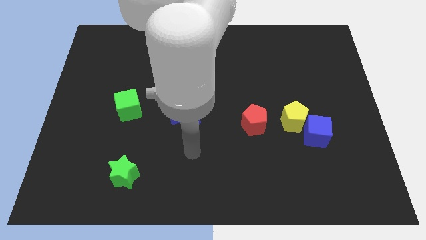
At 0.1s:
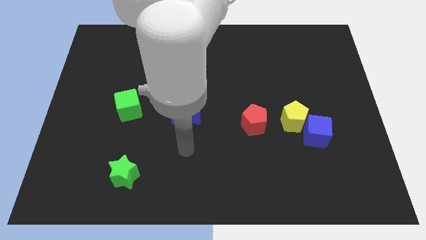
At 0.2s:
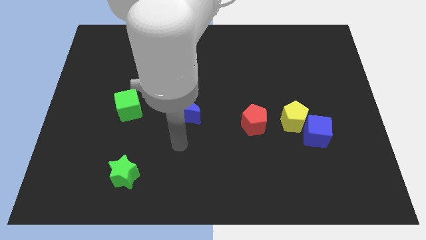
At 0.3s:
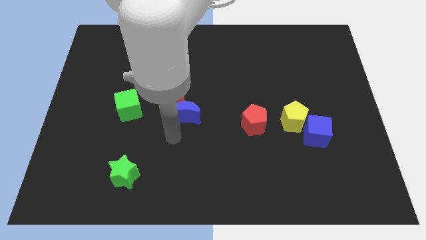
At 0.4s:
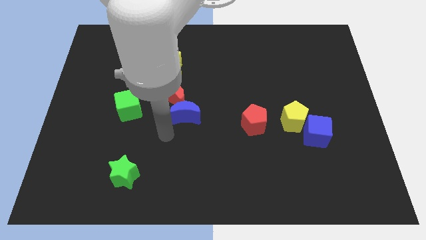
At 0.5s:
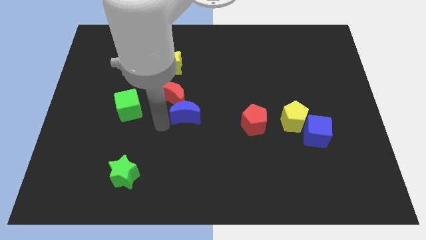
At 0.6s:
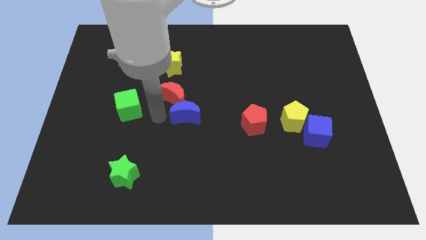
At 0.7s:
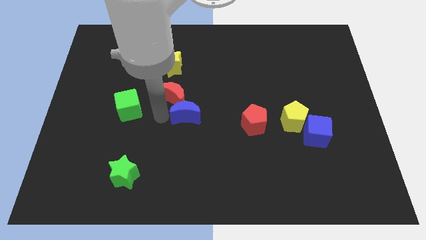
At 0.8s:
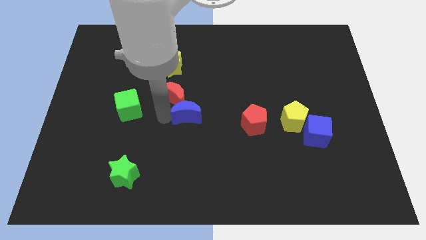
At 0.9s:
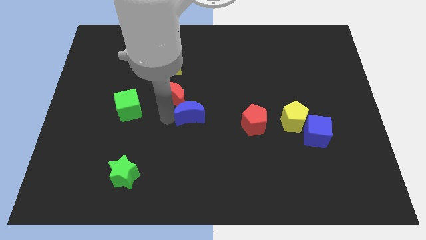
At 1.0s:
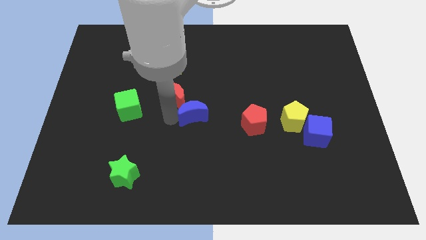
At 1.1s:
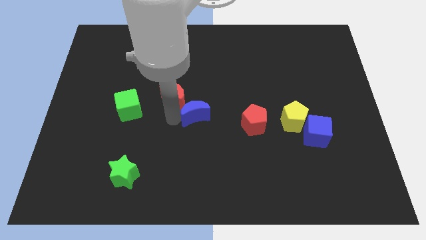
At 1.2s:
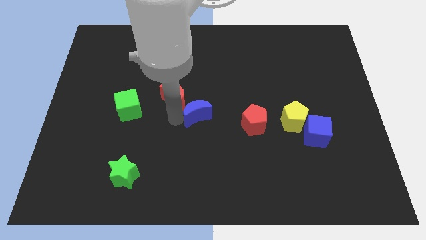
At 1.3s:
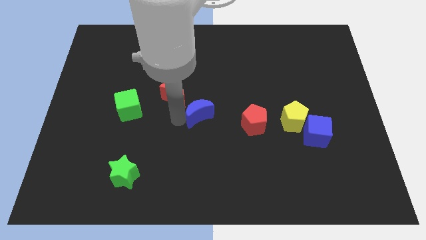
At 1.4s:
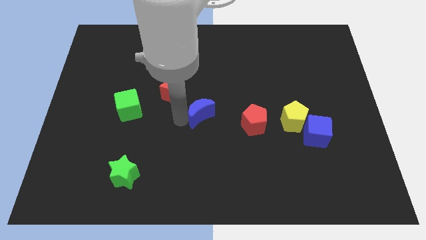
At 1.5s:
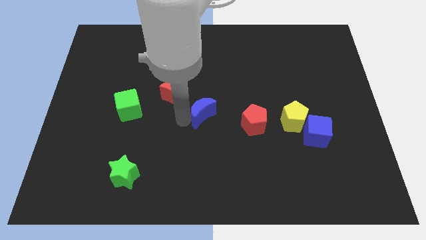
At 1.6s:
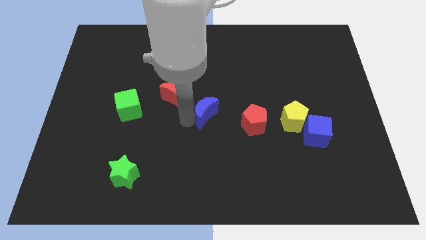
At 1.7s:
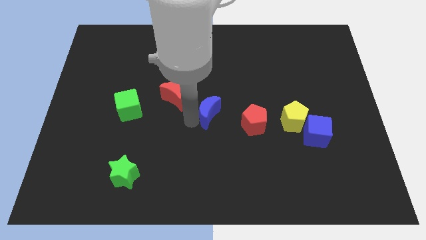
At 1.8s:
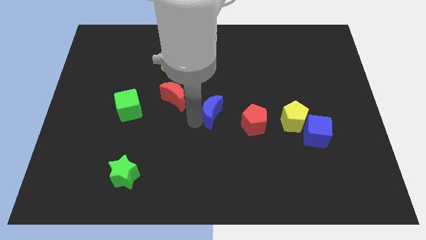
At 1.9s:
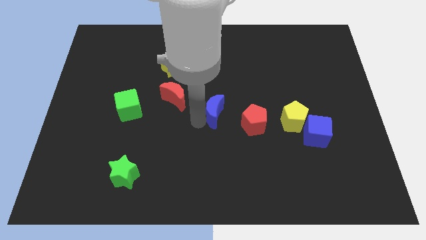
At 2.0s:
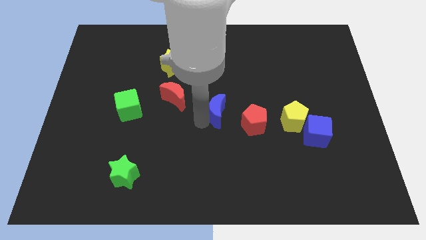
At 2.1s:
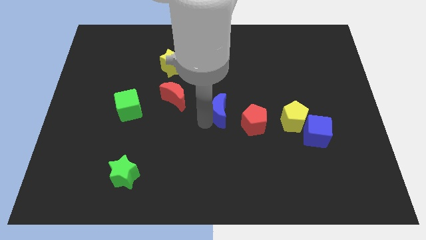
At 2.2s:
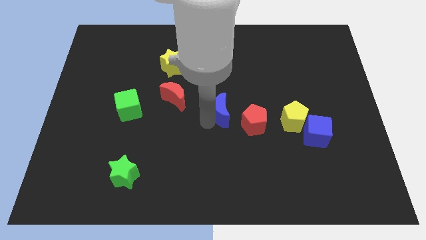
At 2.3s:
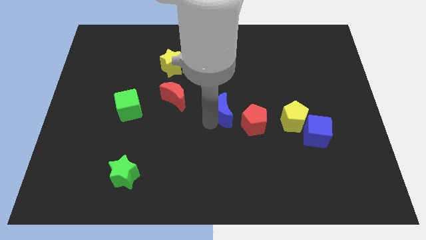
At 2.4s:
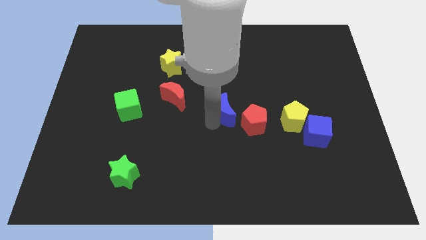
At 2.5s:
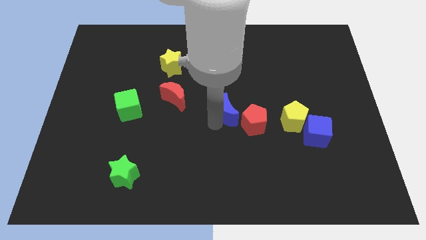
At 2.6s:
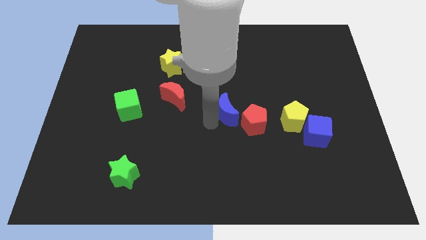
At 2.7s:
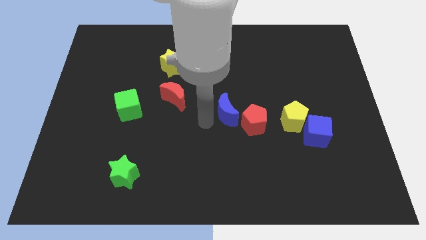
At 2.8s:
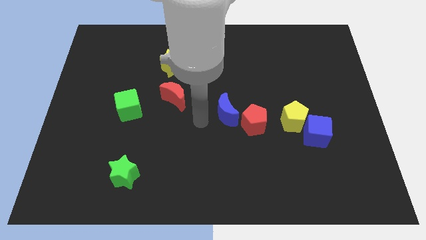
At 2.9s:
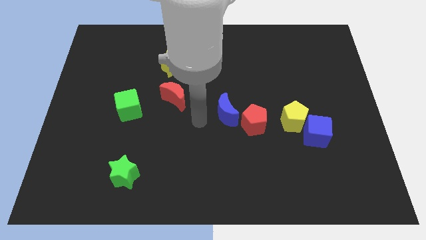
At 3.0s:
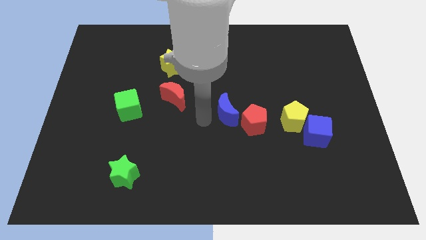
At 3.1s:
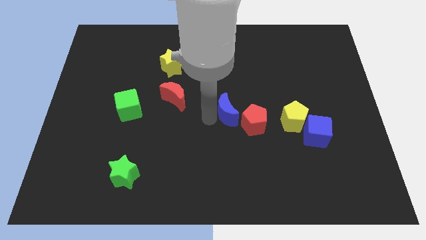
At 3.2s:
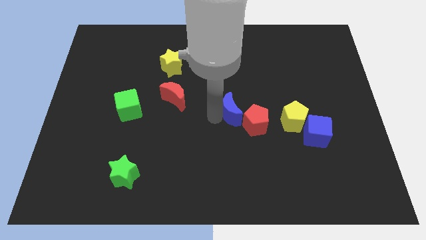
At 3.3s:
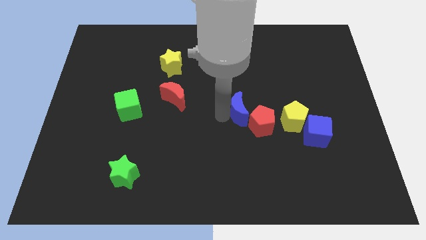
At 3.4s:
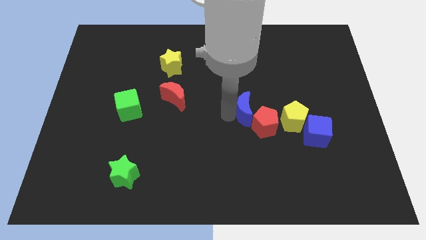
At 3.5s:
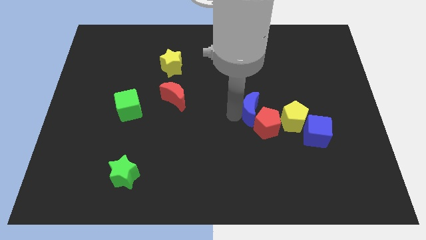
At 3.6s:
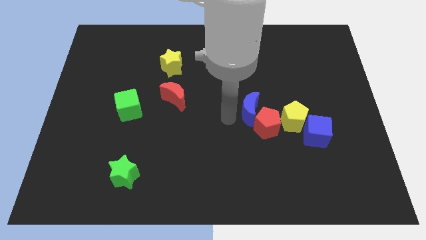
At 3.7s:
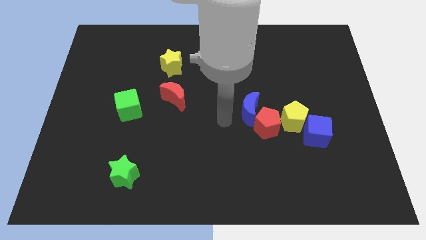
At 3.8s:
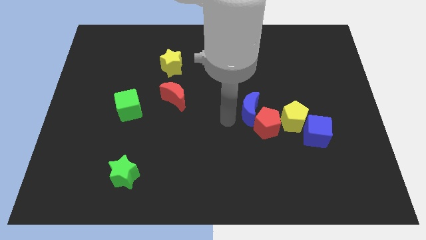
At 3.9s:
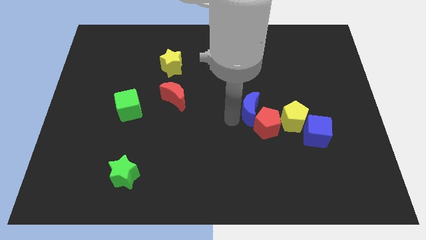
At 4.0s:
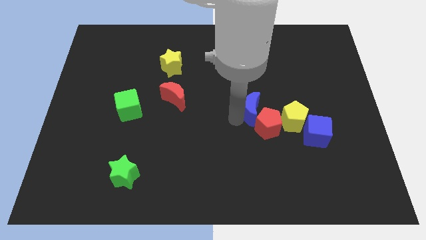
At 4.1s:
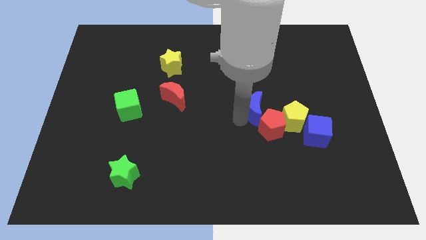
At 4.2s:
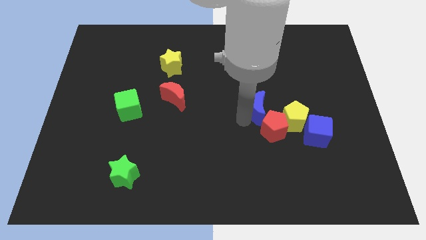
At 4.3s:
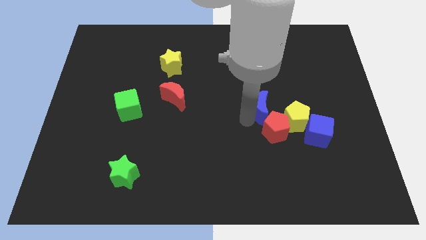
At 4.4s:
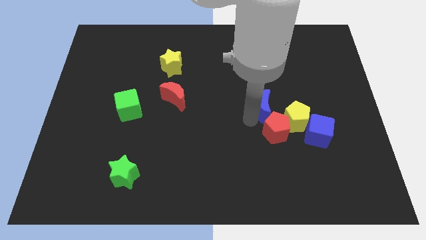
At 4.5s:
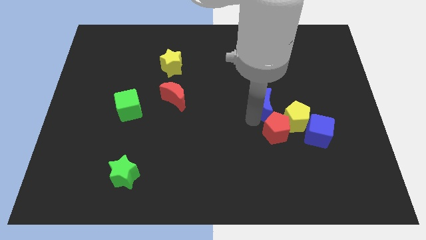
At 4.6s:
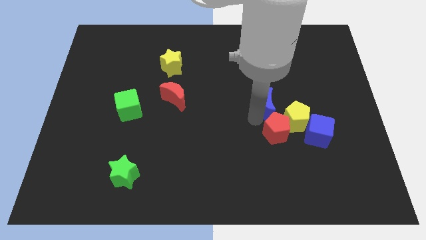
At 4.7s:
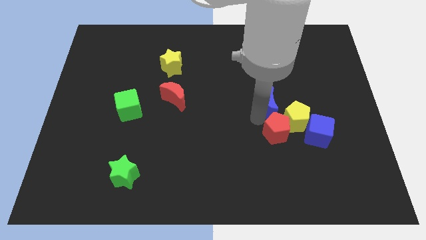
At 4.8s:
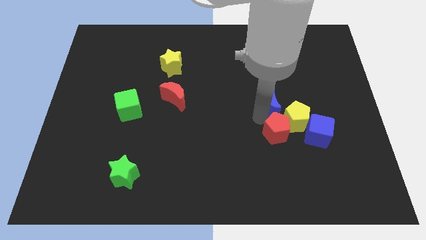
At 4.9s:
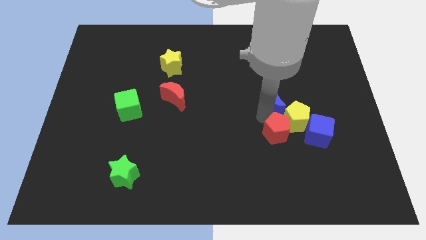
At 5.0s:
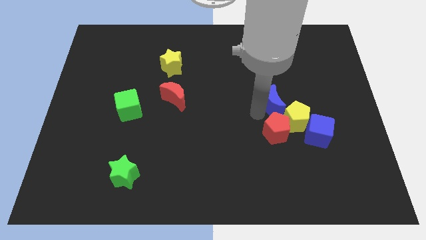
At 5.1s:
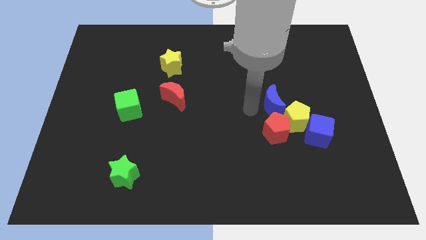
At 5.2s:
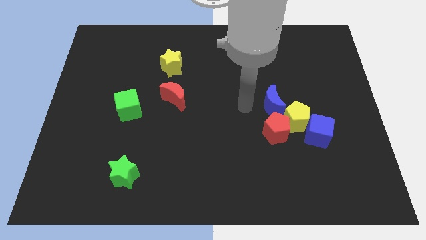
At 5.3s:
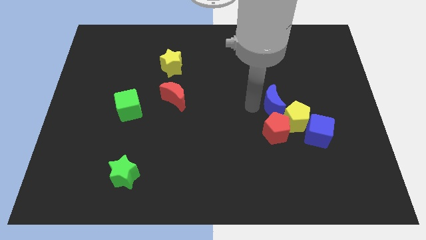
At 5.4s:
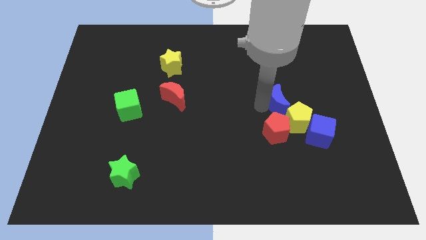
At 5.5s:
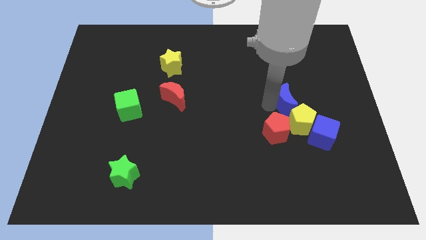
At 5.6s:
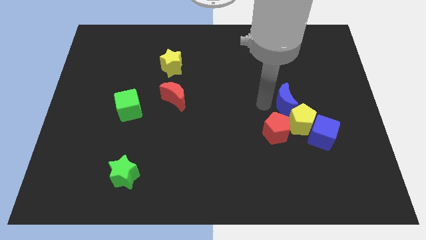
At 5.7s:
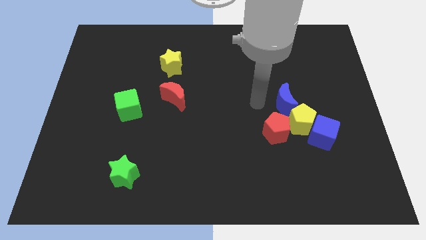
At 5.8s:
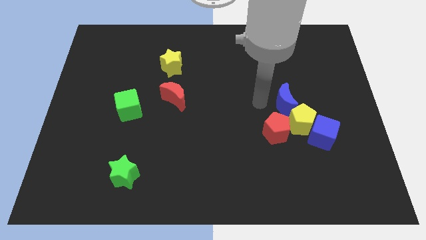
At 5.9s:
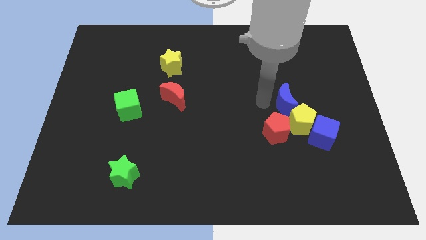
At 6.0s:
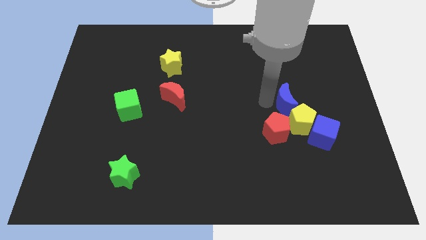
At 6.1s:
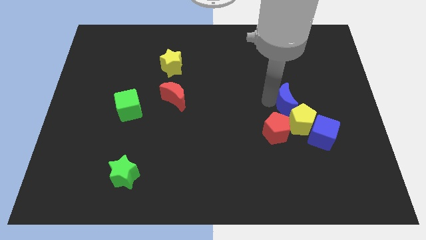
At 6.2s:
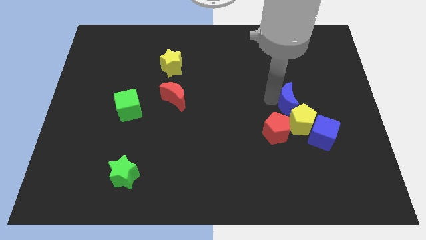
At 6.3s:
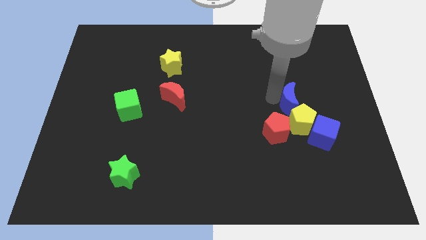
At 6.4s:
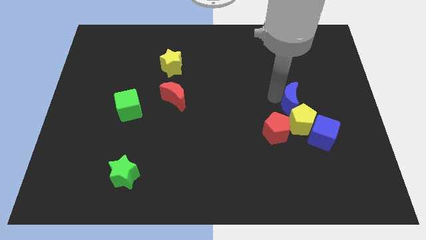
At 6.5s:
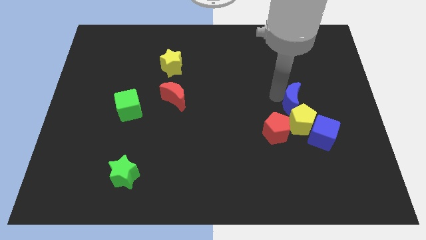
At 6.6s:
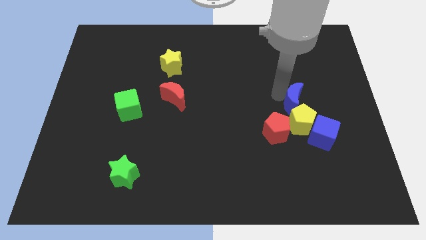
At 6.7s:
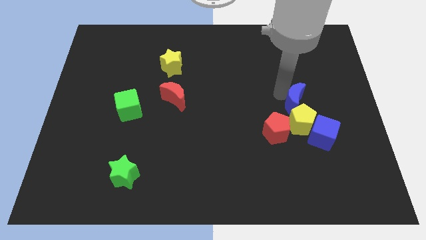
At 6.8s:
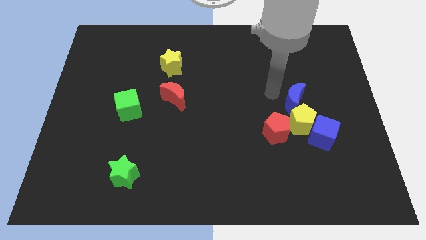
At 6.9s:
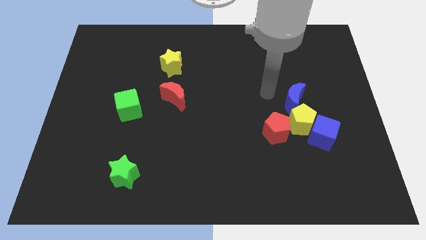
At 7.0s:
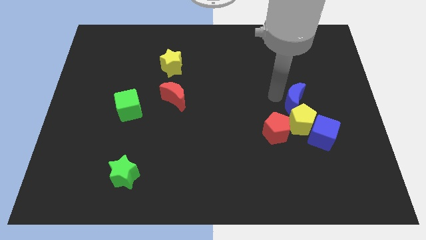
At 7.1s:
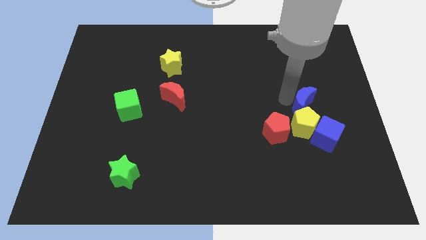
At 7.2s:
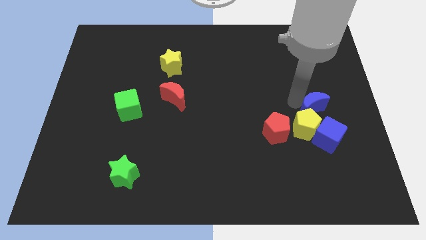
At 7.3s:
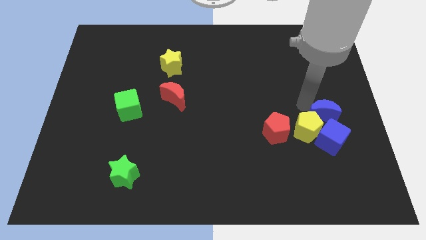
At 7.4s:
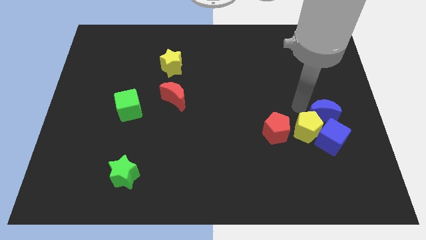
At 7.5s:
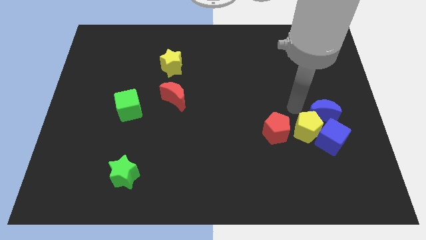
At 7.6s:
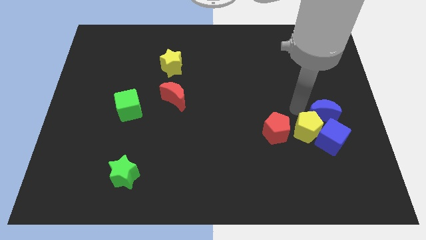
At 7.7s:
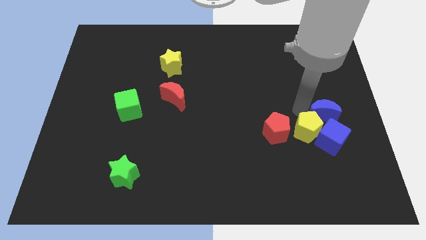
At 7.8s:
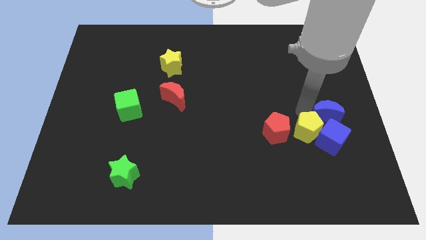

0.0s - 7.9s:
slide the blue moon to the top right of the blue cube
